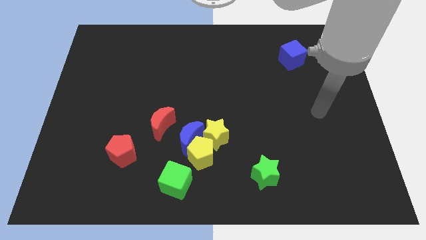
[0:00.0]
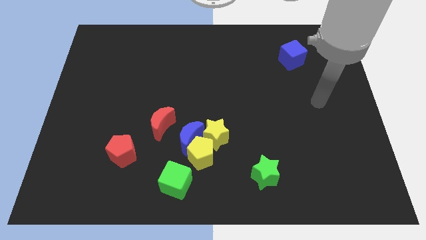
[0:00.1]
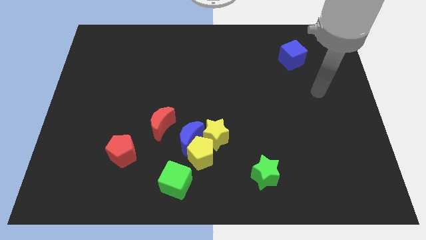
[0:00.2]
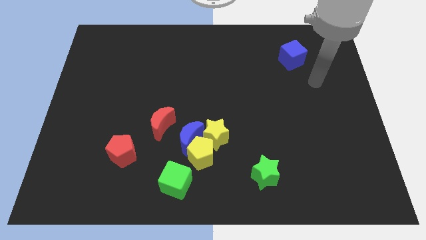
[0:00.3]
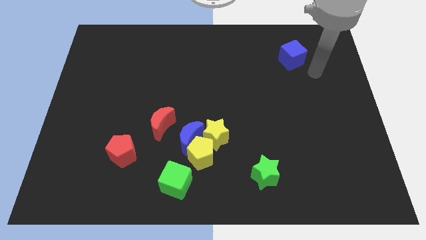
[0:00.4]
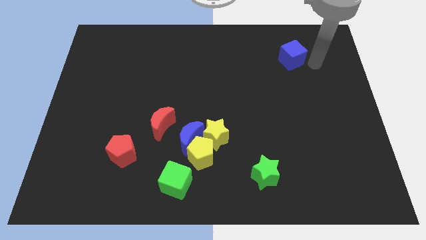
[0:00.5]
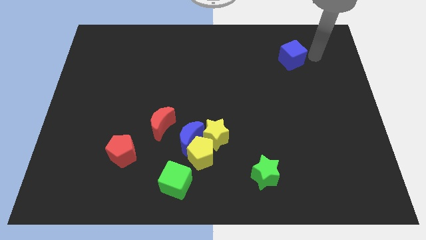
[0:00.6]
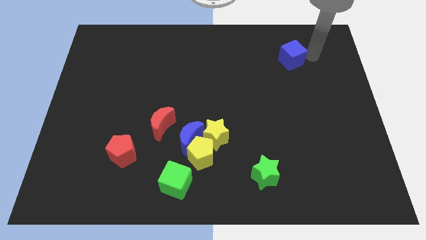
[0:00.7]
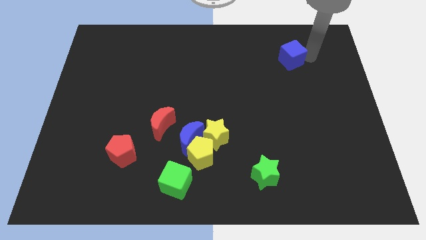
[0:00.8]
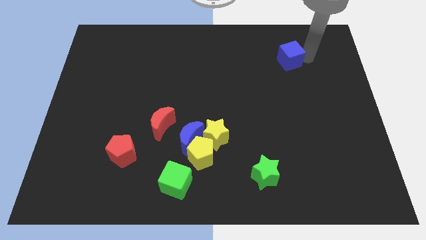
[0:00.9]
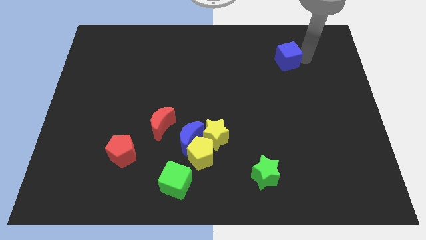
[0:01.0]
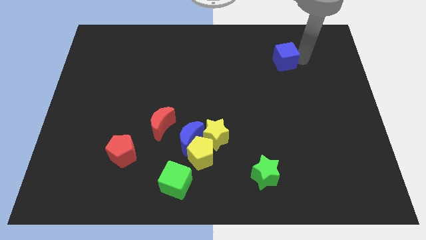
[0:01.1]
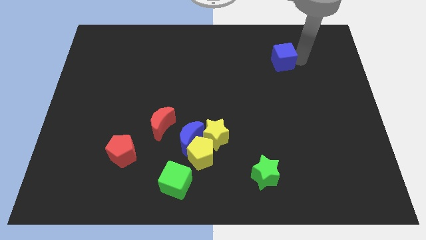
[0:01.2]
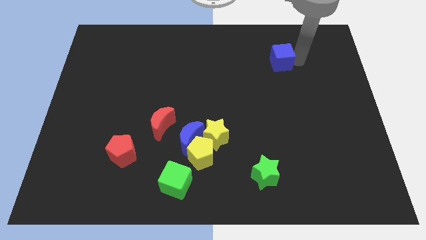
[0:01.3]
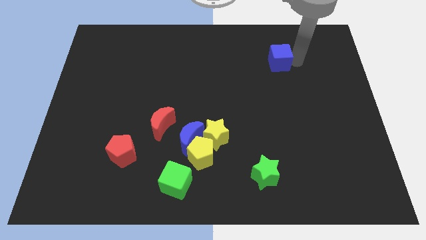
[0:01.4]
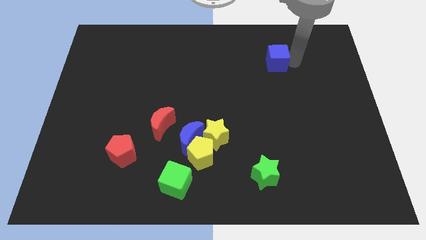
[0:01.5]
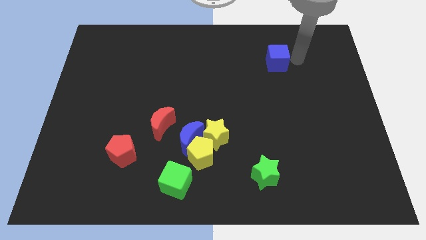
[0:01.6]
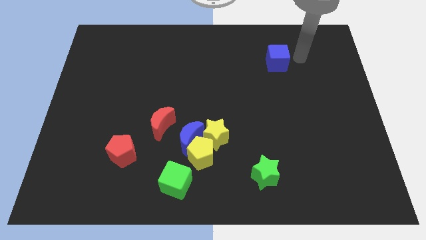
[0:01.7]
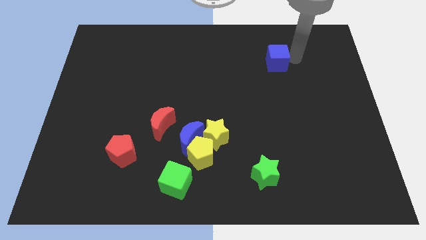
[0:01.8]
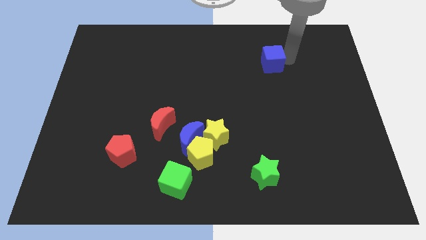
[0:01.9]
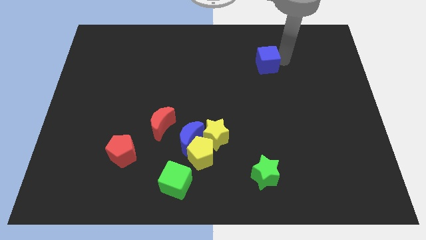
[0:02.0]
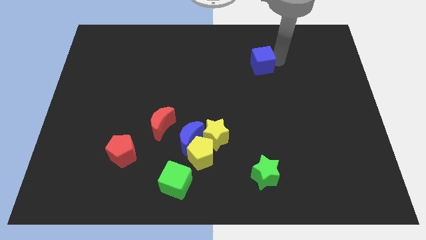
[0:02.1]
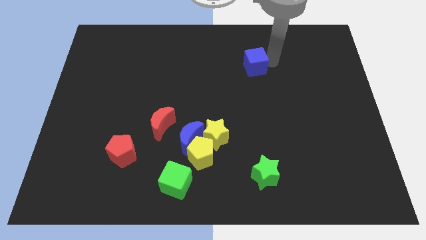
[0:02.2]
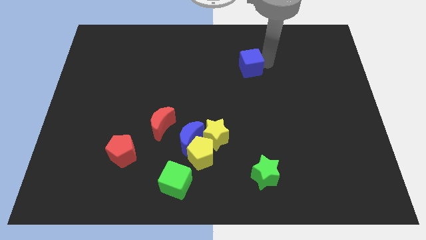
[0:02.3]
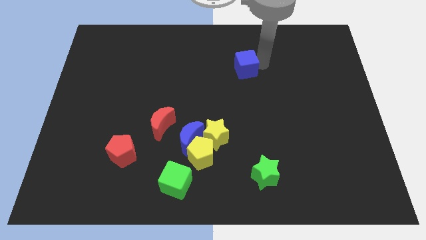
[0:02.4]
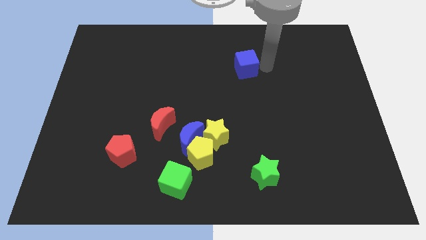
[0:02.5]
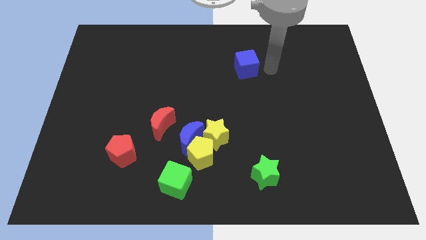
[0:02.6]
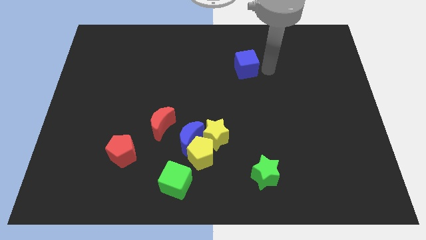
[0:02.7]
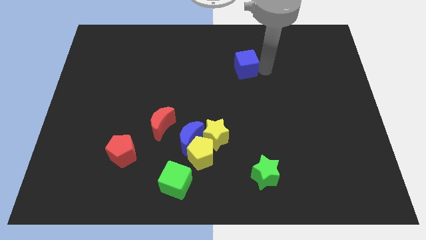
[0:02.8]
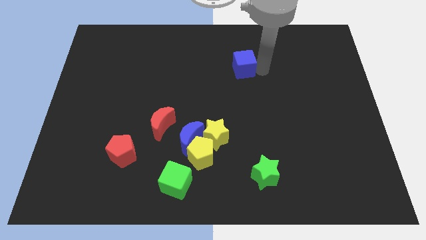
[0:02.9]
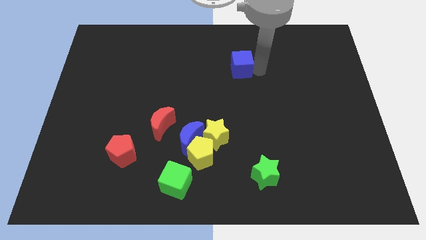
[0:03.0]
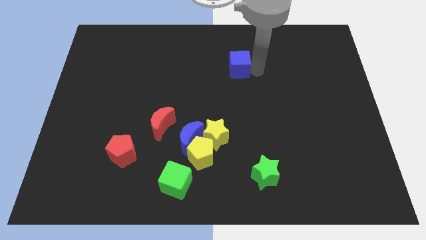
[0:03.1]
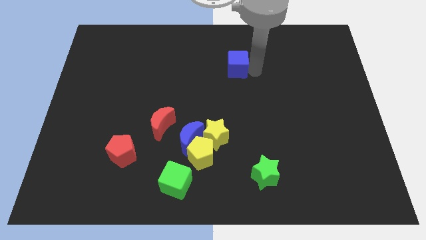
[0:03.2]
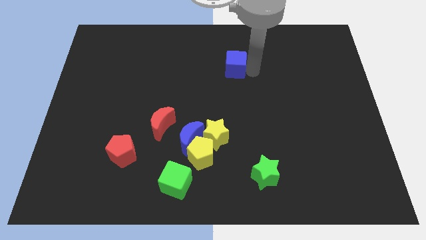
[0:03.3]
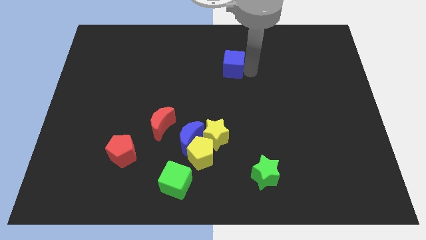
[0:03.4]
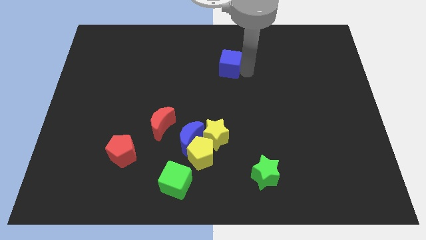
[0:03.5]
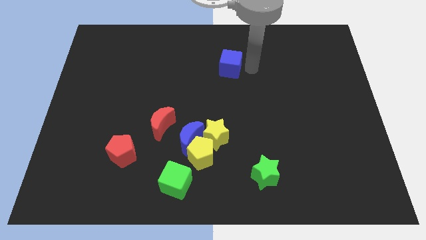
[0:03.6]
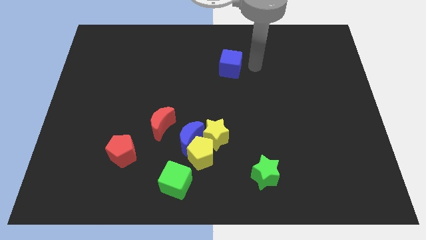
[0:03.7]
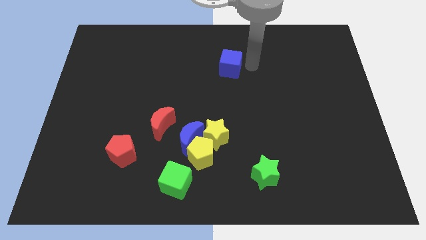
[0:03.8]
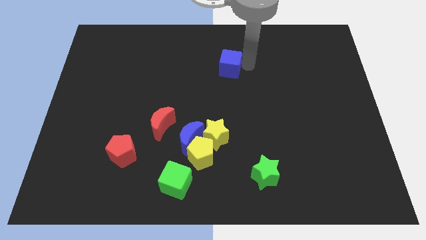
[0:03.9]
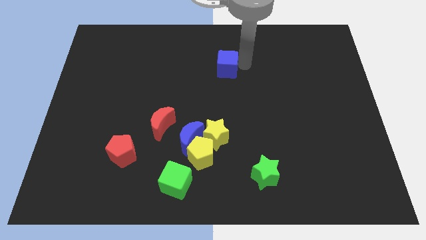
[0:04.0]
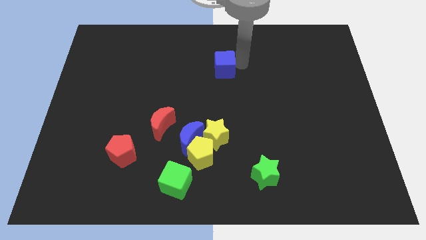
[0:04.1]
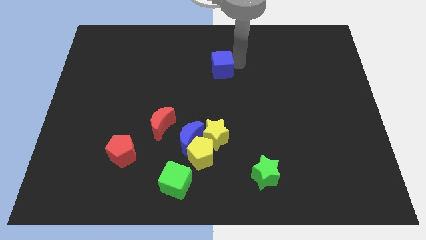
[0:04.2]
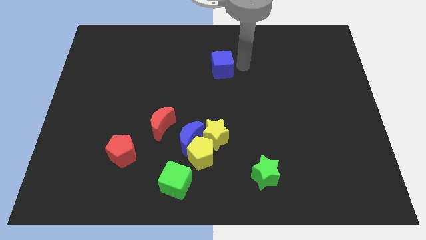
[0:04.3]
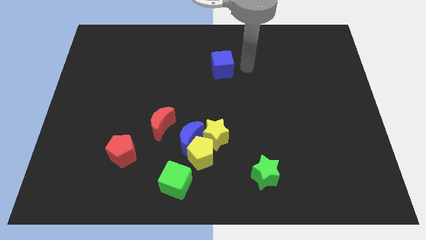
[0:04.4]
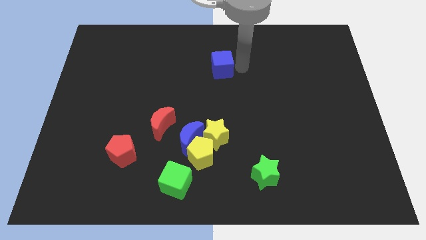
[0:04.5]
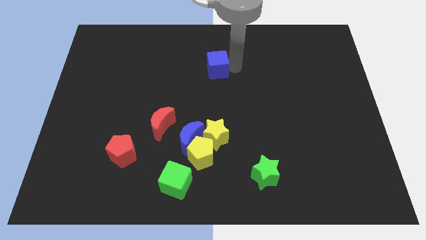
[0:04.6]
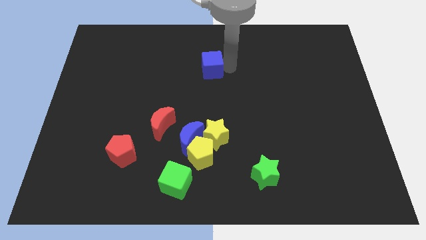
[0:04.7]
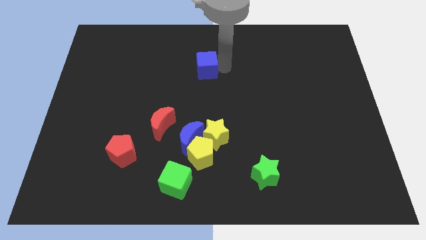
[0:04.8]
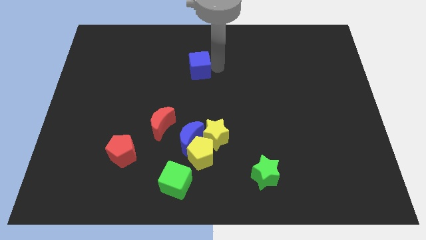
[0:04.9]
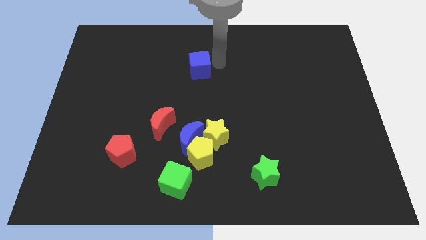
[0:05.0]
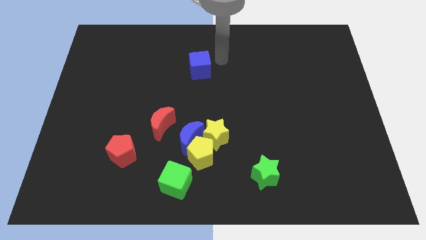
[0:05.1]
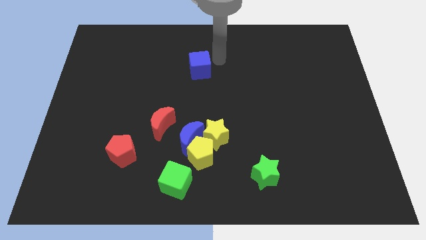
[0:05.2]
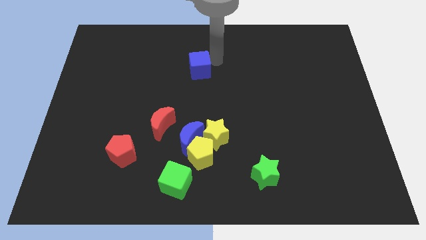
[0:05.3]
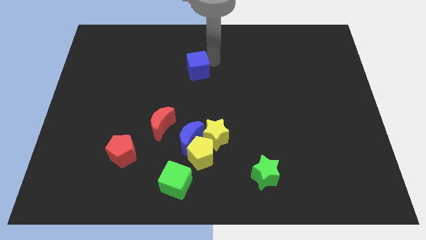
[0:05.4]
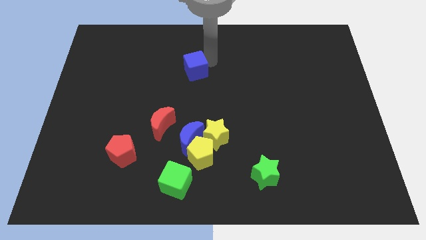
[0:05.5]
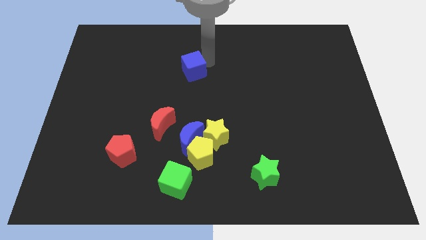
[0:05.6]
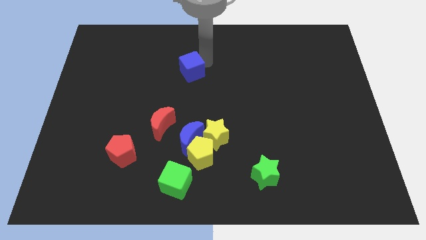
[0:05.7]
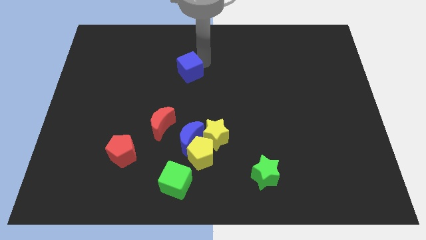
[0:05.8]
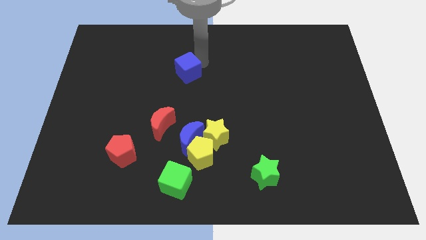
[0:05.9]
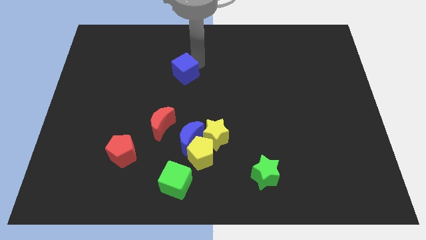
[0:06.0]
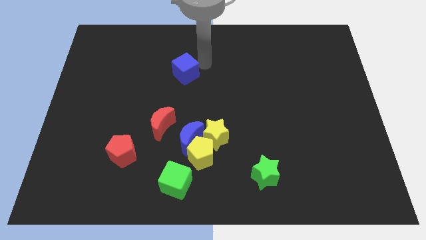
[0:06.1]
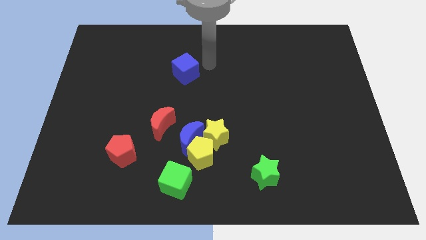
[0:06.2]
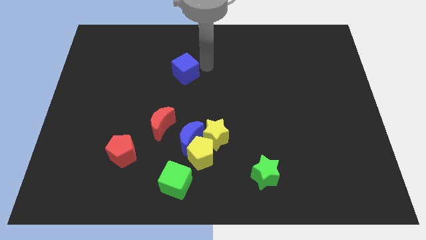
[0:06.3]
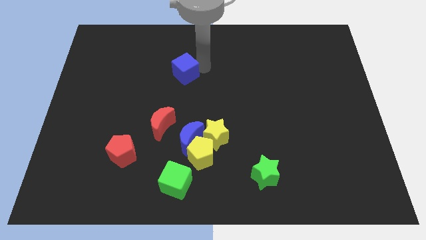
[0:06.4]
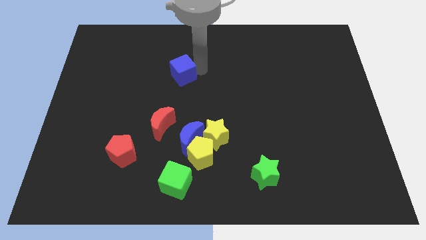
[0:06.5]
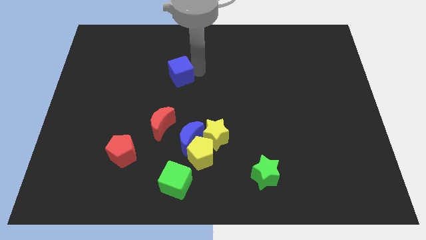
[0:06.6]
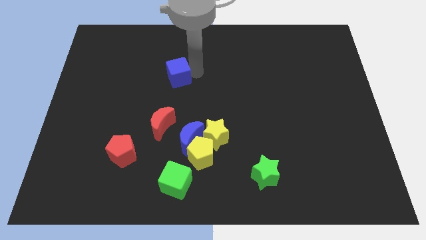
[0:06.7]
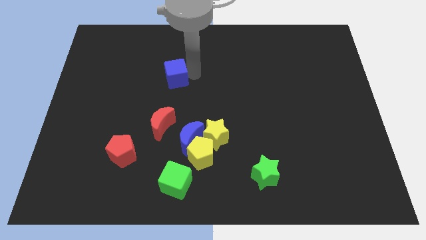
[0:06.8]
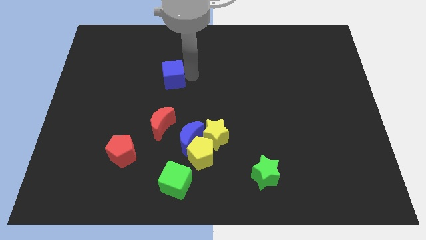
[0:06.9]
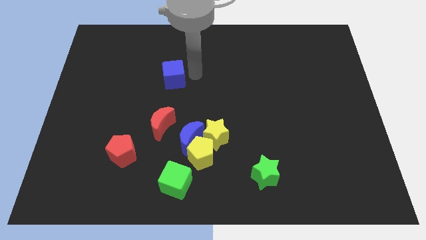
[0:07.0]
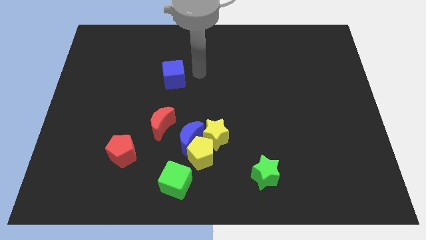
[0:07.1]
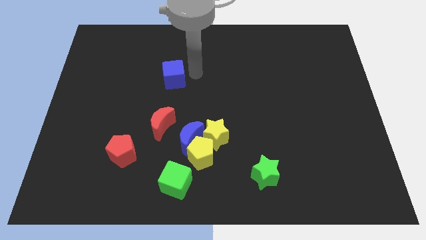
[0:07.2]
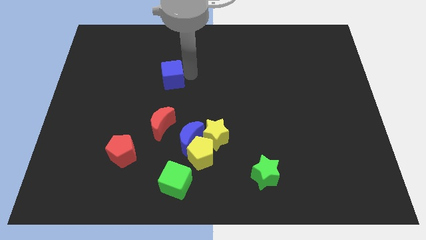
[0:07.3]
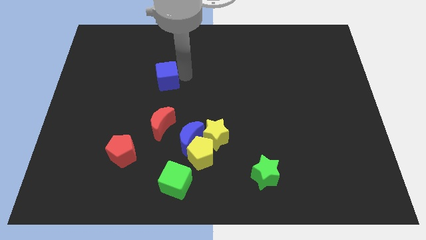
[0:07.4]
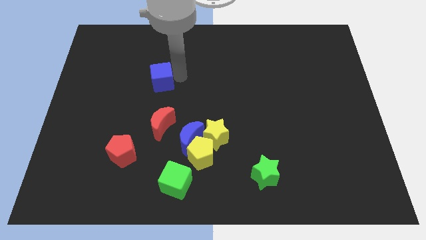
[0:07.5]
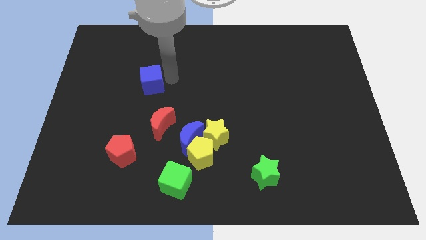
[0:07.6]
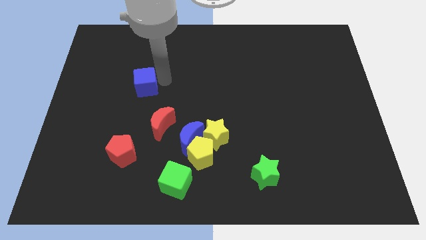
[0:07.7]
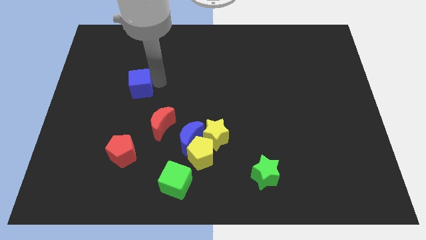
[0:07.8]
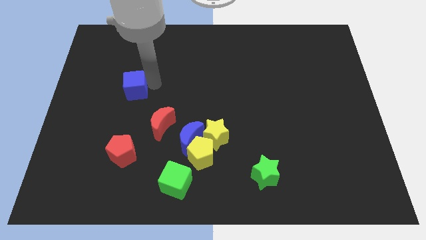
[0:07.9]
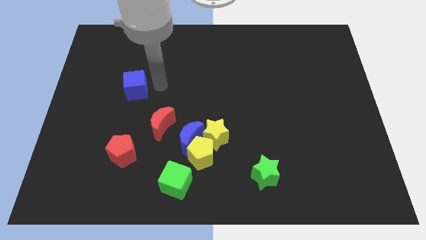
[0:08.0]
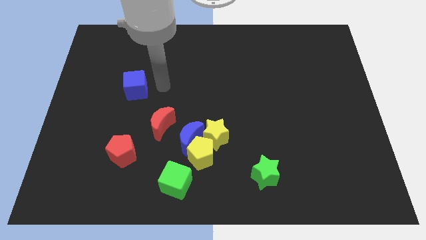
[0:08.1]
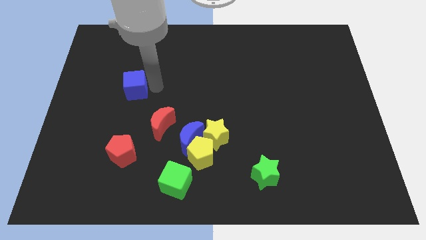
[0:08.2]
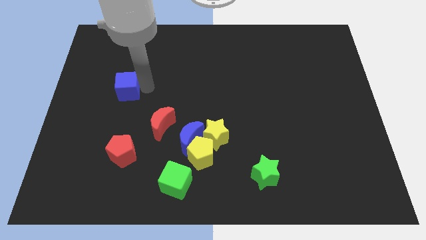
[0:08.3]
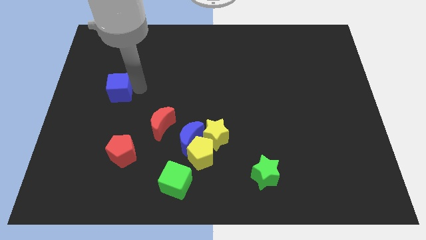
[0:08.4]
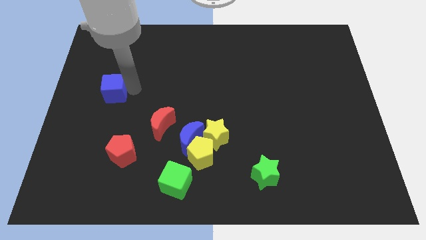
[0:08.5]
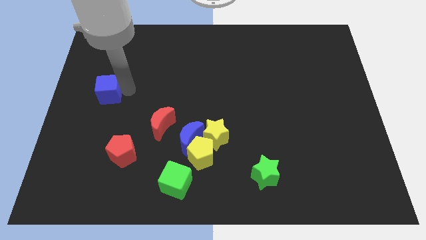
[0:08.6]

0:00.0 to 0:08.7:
slide the blue cube to the left side of the board
